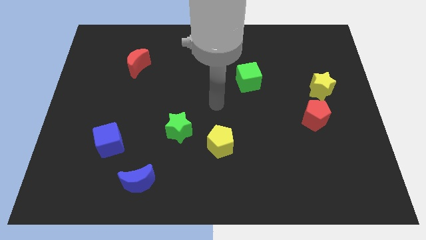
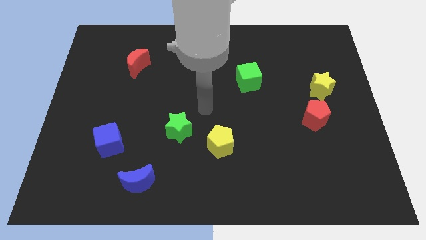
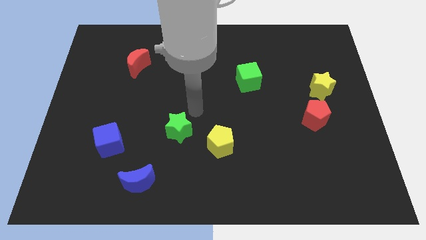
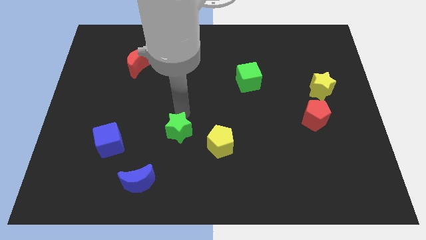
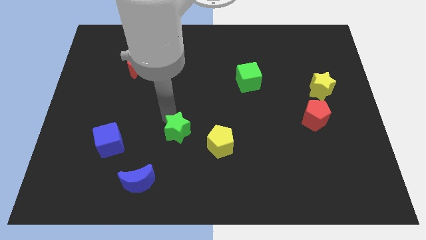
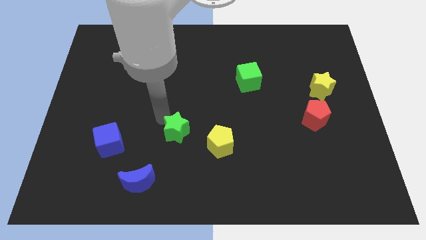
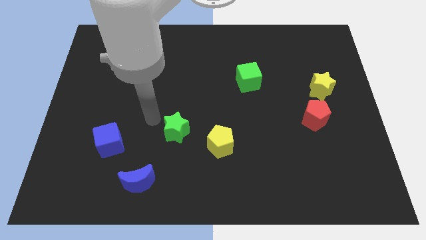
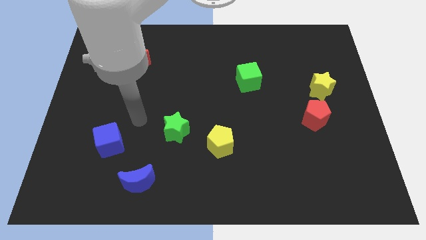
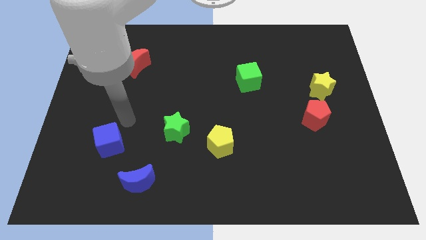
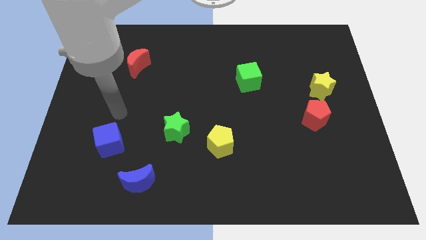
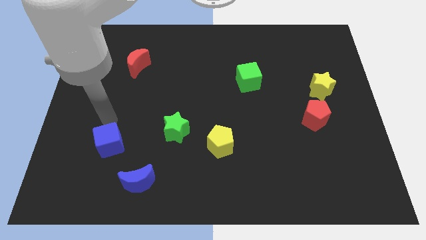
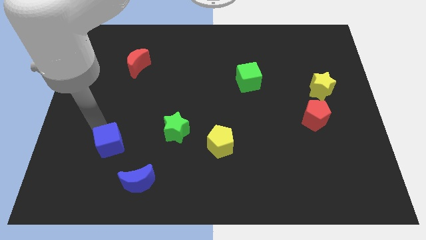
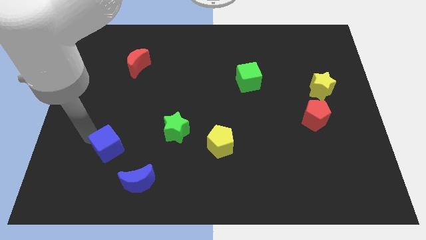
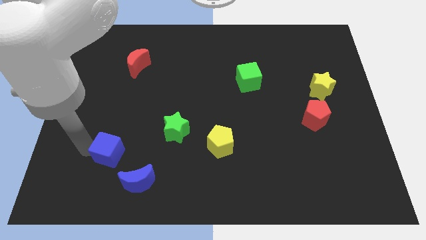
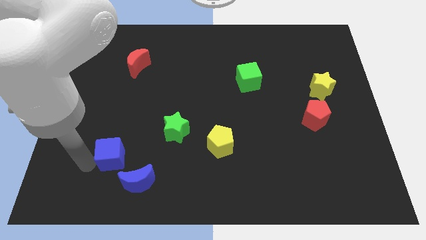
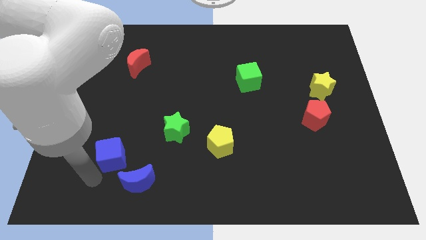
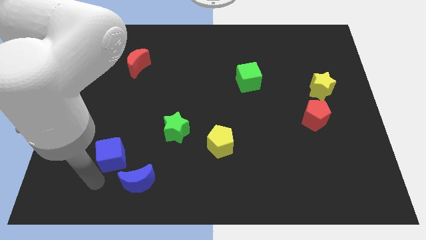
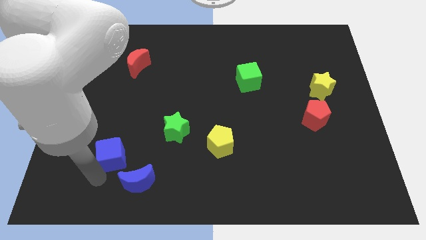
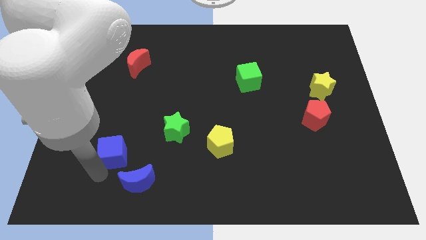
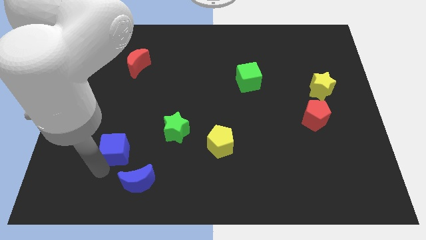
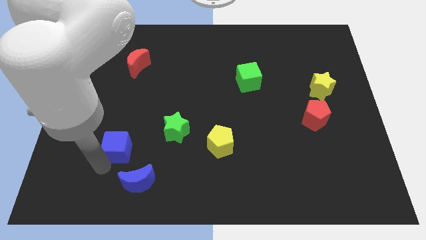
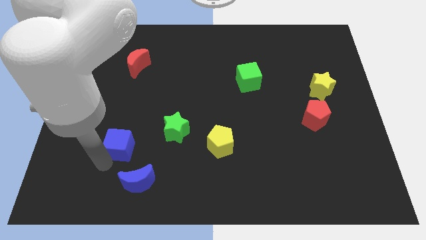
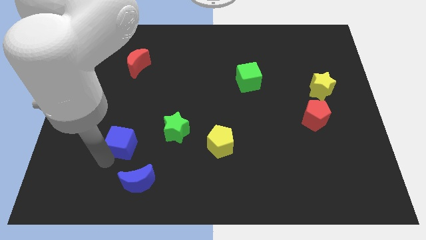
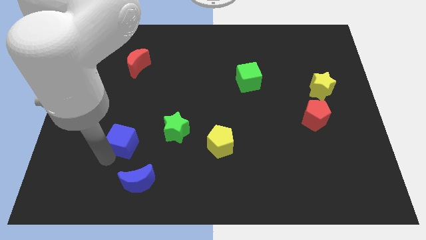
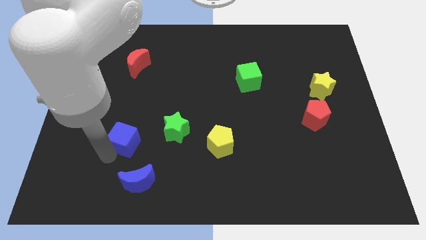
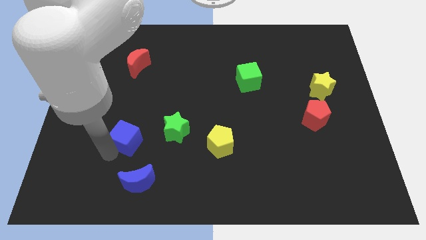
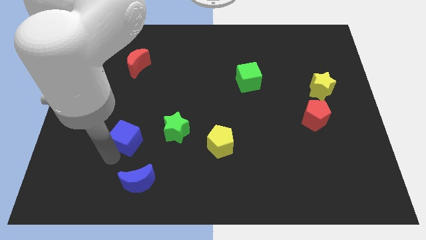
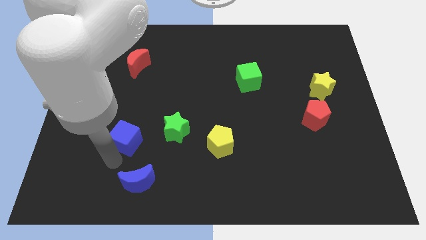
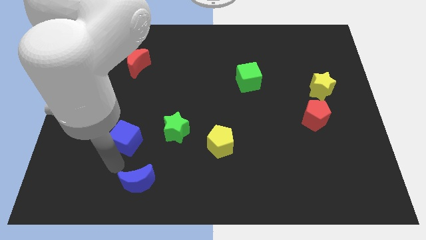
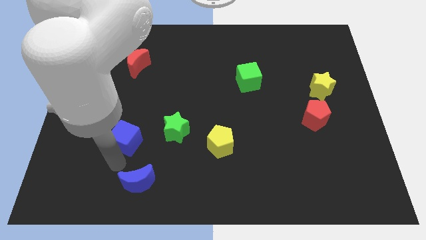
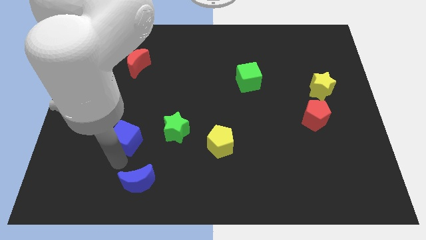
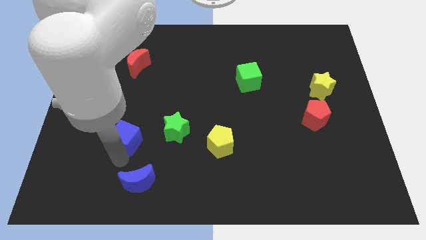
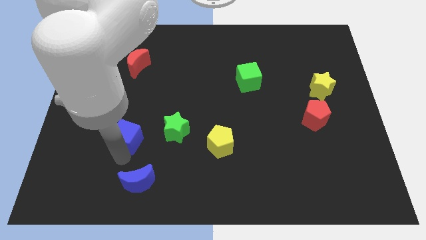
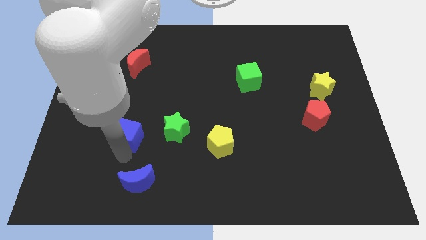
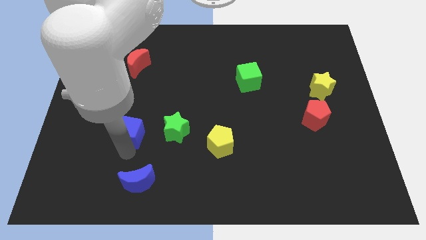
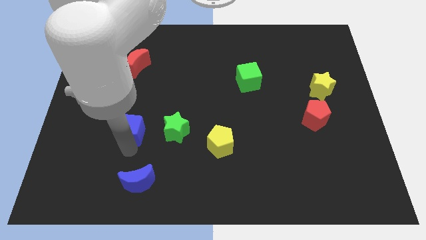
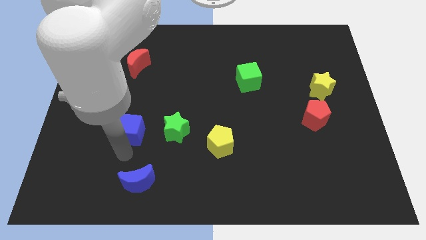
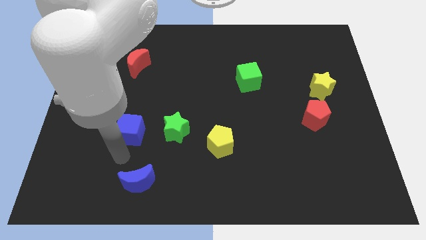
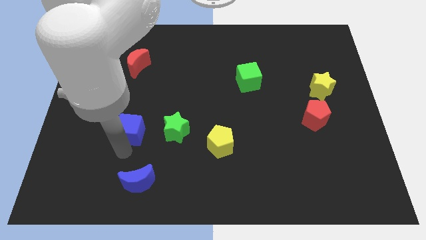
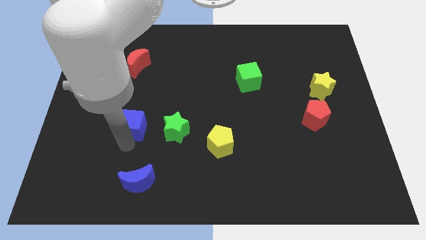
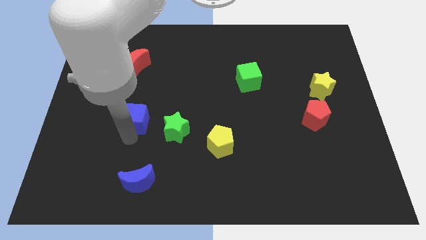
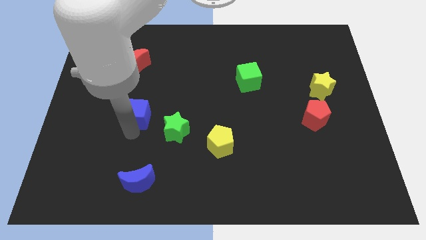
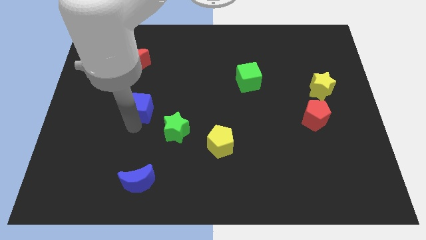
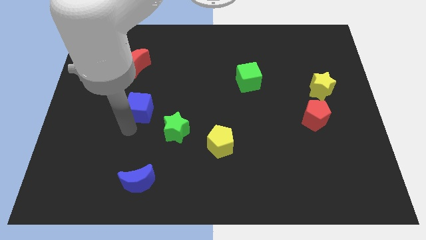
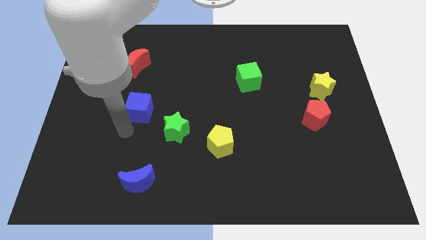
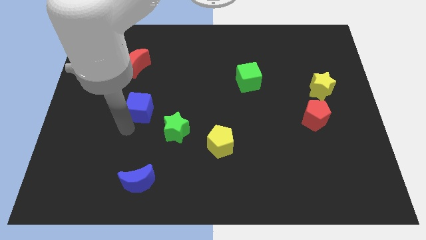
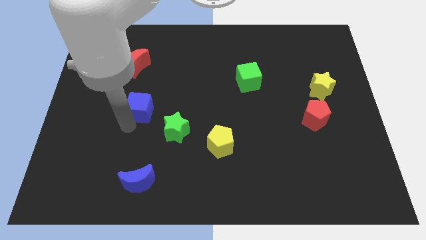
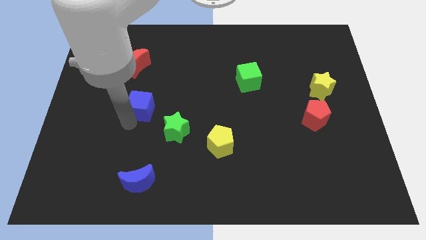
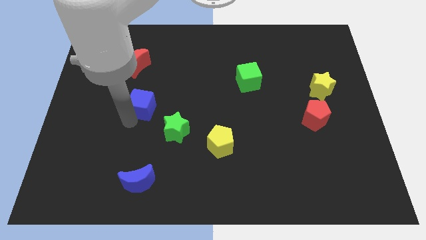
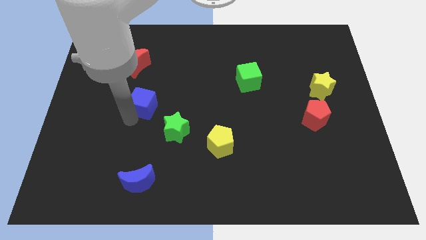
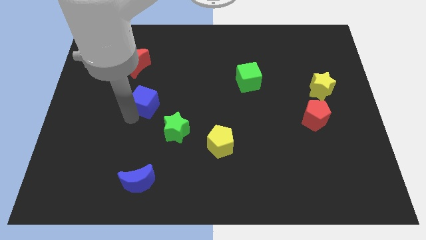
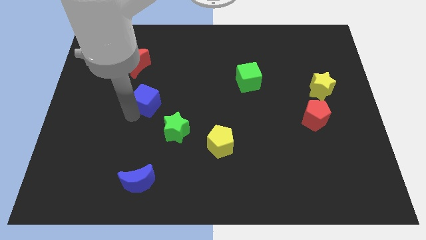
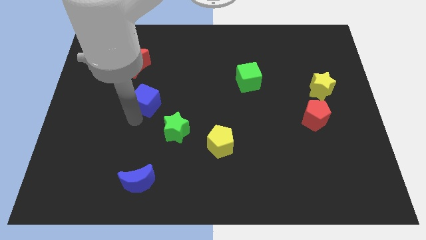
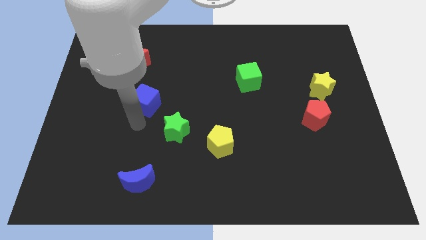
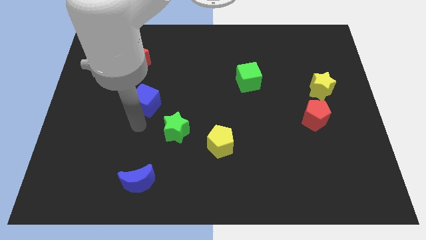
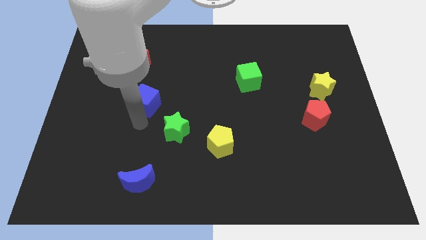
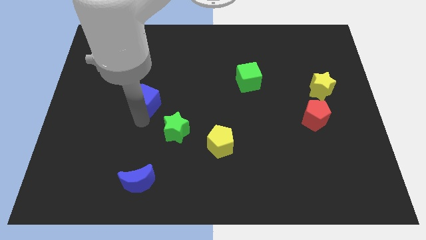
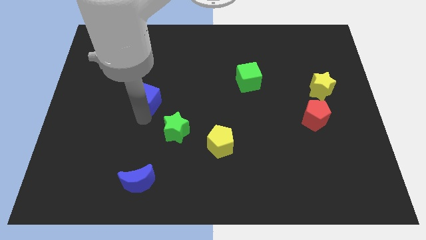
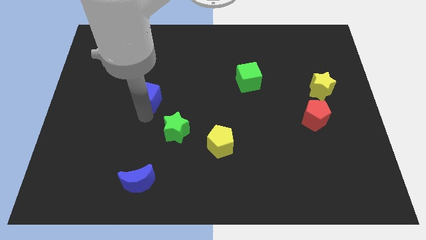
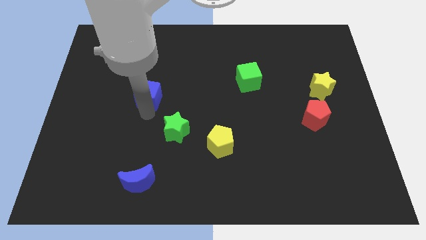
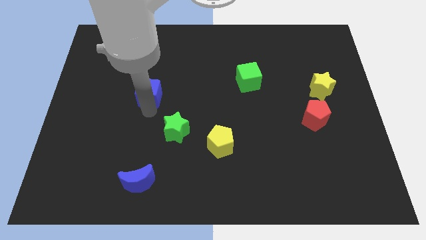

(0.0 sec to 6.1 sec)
slide the blue cube to the bottom right of the red moon
